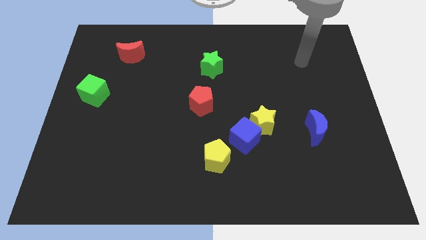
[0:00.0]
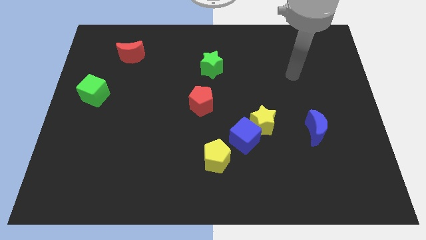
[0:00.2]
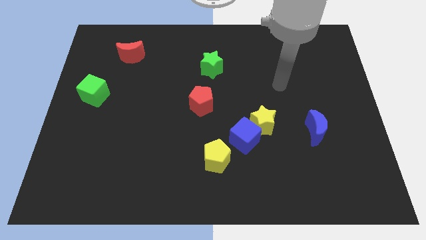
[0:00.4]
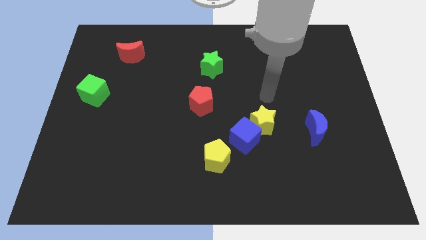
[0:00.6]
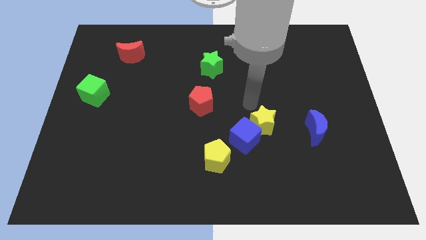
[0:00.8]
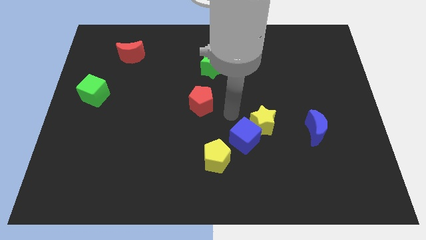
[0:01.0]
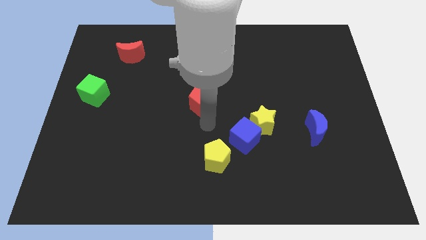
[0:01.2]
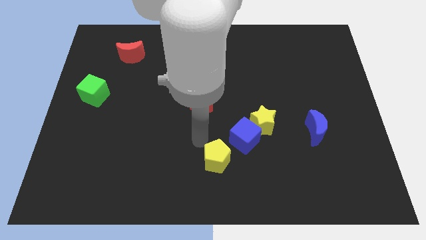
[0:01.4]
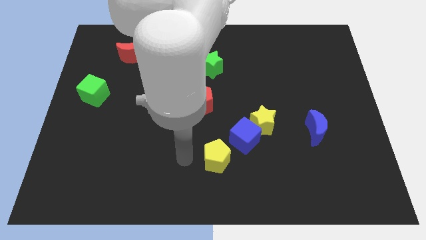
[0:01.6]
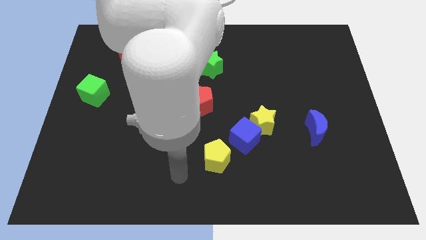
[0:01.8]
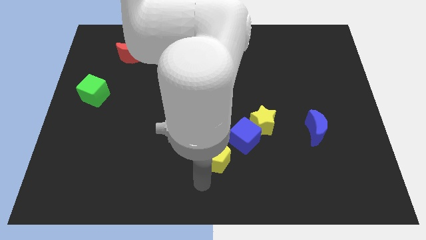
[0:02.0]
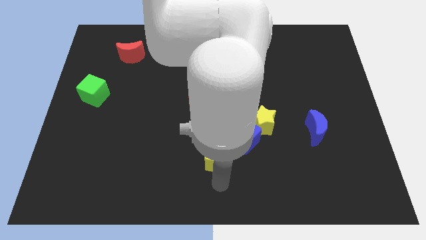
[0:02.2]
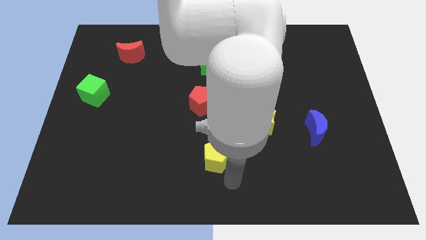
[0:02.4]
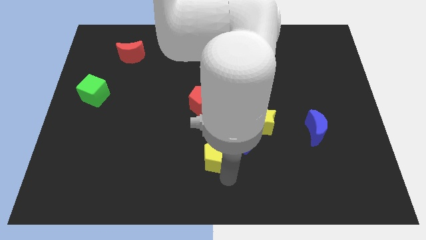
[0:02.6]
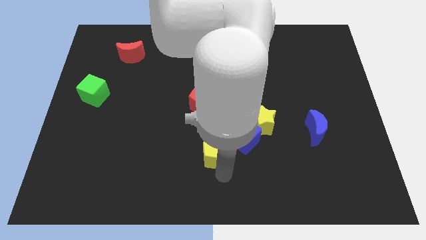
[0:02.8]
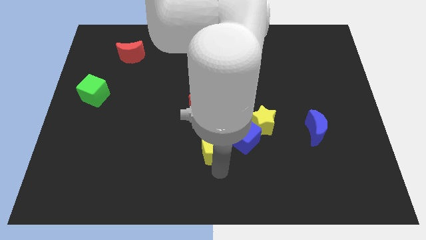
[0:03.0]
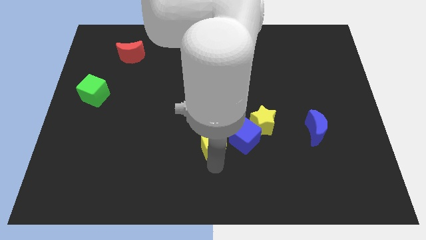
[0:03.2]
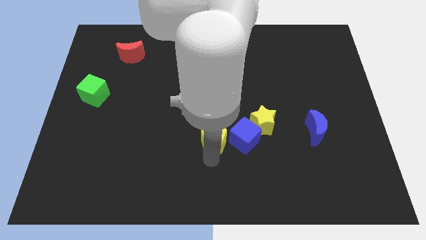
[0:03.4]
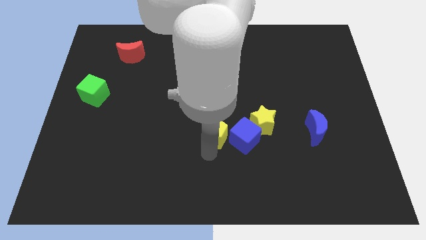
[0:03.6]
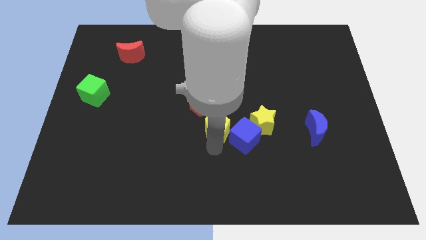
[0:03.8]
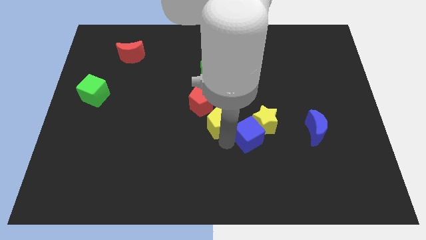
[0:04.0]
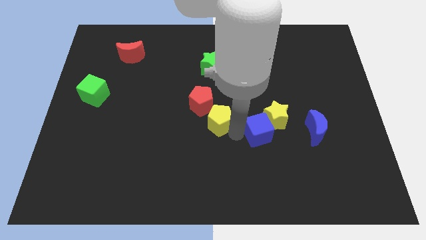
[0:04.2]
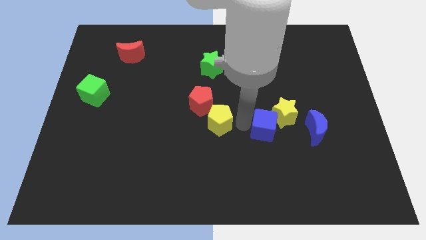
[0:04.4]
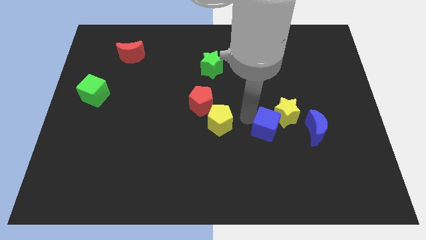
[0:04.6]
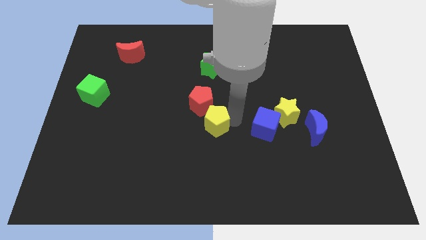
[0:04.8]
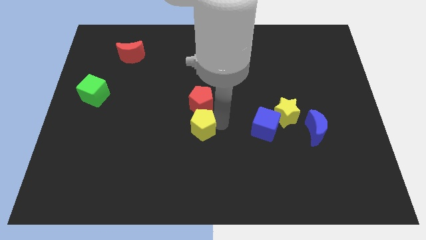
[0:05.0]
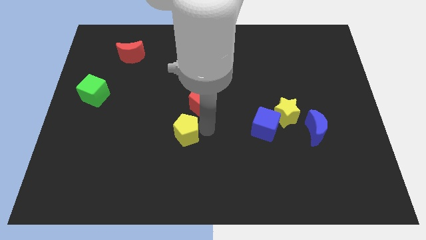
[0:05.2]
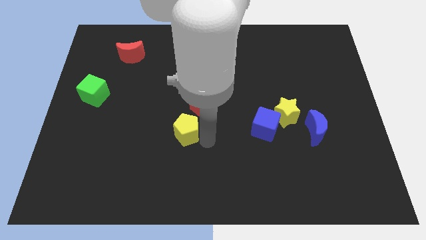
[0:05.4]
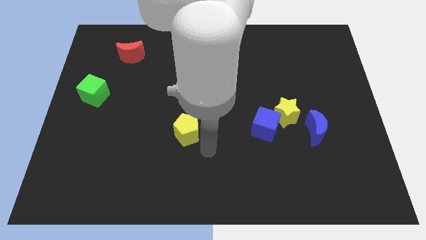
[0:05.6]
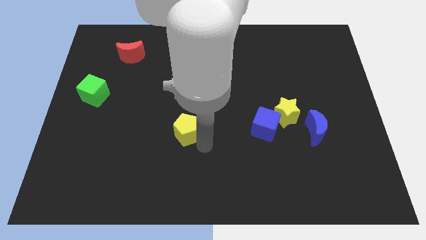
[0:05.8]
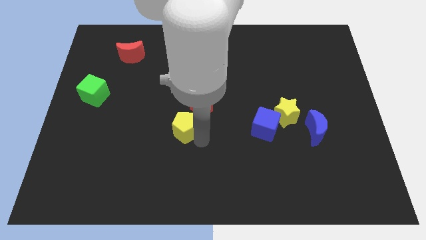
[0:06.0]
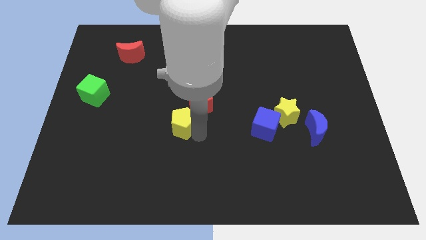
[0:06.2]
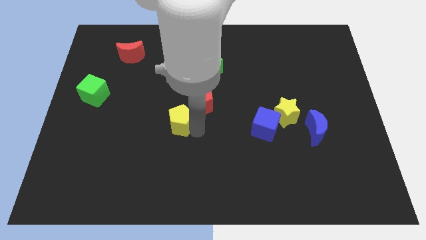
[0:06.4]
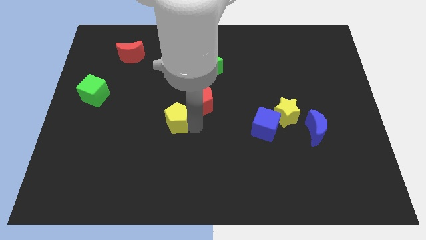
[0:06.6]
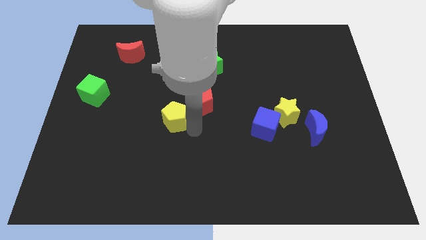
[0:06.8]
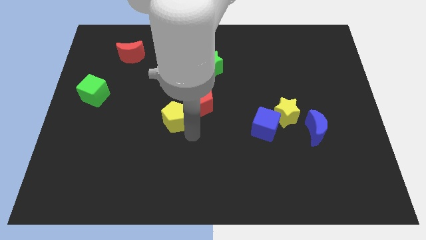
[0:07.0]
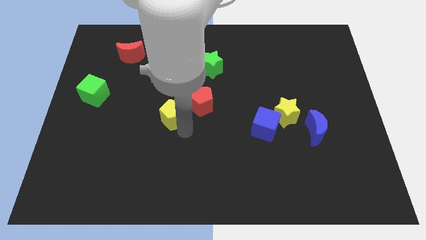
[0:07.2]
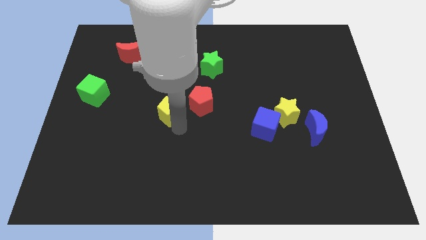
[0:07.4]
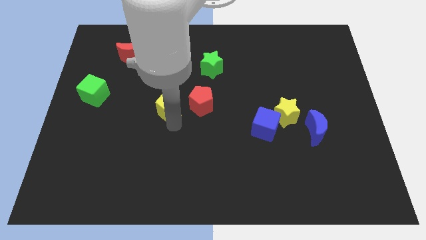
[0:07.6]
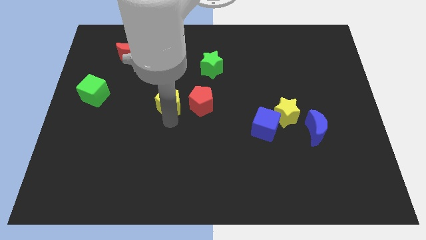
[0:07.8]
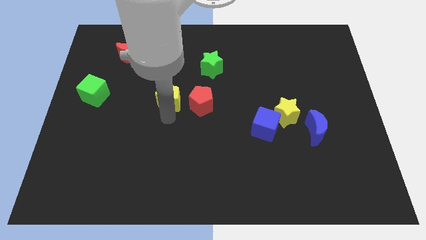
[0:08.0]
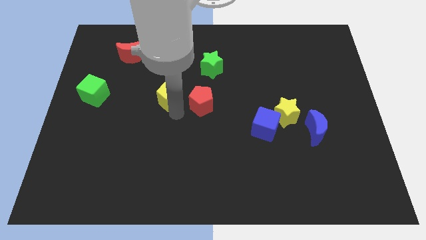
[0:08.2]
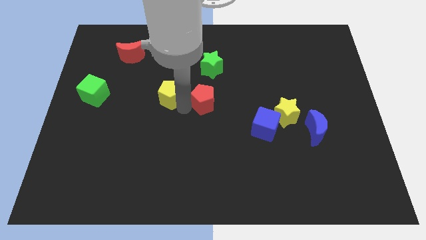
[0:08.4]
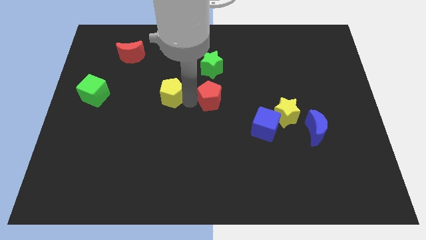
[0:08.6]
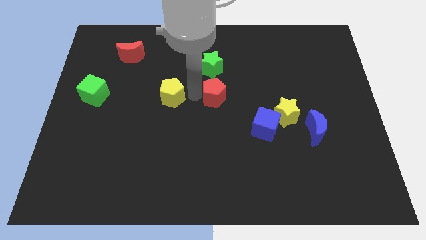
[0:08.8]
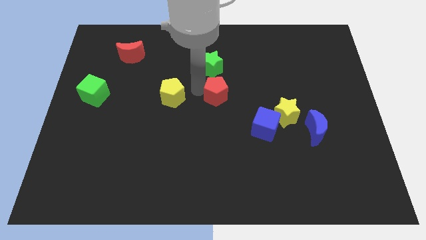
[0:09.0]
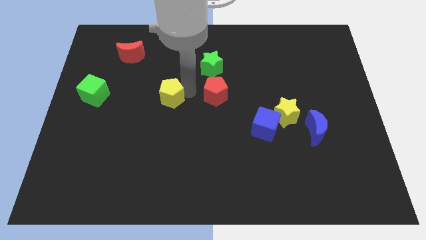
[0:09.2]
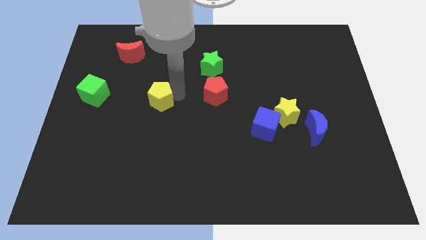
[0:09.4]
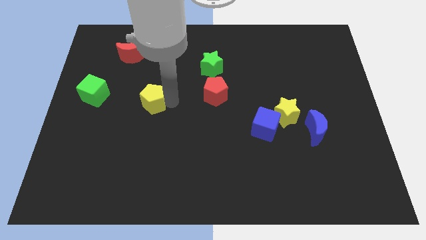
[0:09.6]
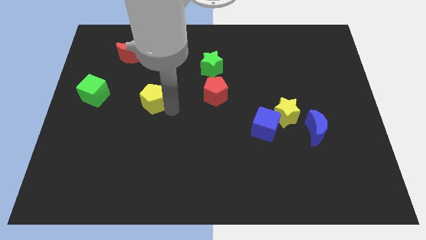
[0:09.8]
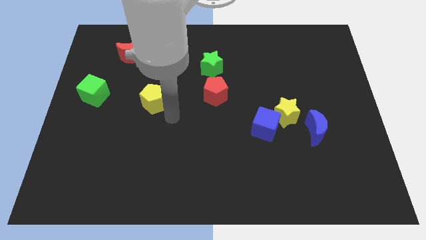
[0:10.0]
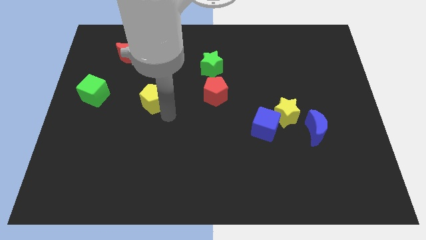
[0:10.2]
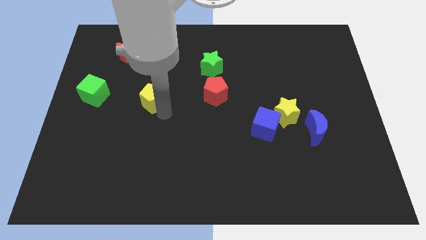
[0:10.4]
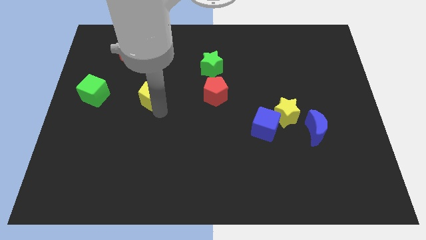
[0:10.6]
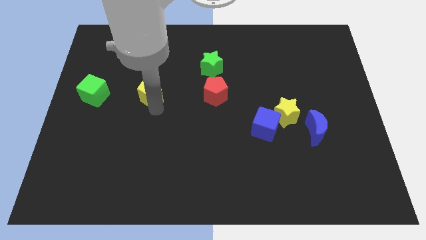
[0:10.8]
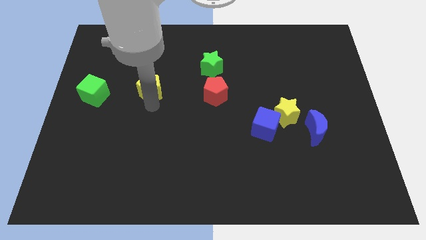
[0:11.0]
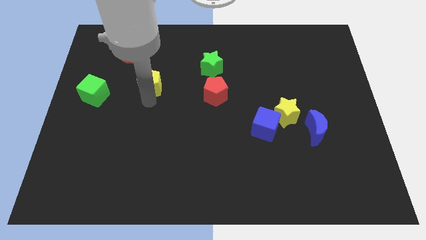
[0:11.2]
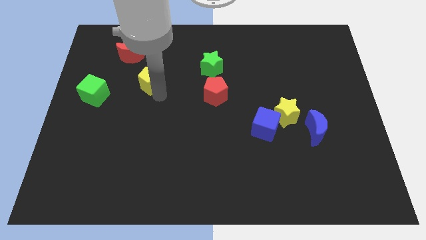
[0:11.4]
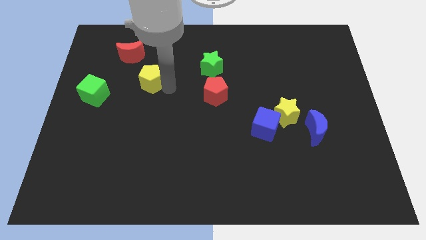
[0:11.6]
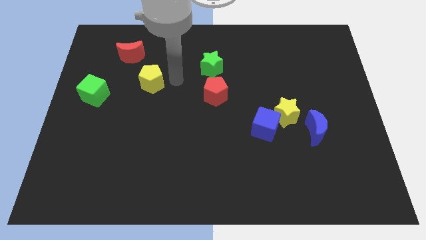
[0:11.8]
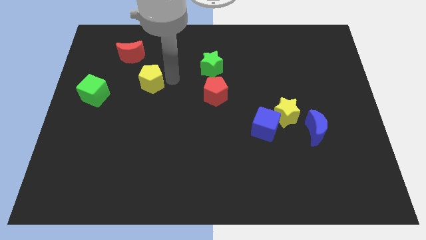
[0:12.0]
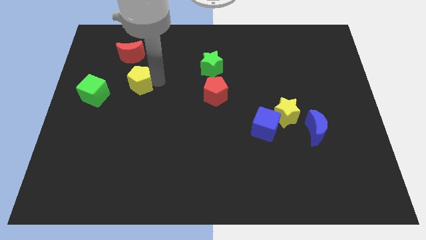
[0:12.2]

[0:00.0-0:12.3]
push the yellow pentagon to the bottom side of the red moon

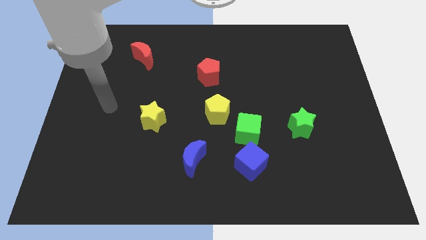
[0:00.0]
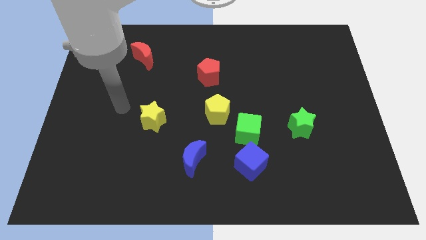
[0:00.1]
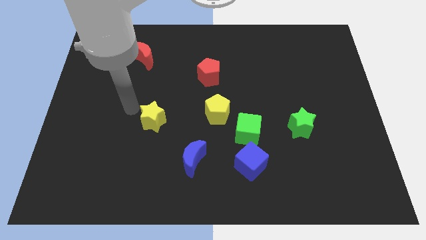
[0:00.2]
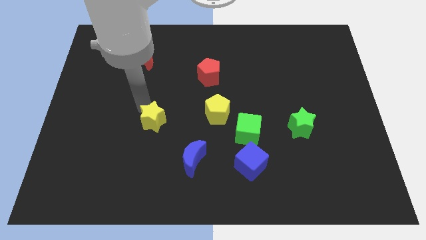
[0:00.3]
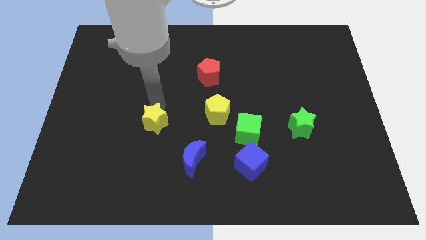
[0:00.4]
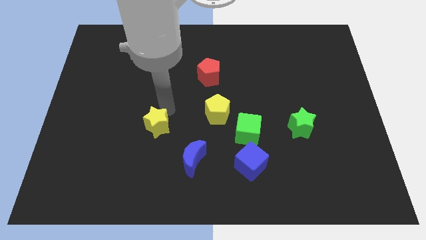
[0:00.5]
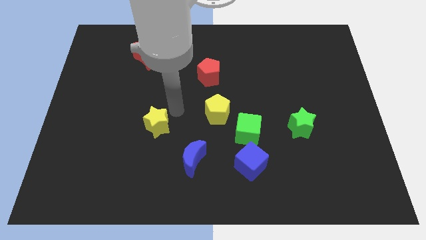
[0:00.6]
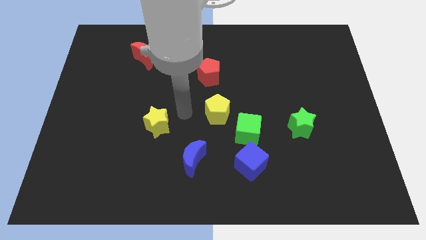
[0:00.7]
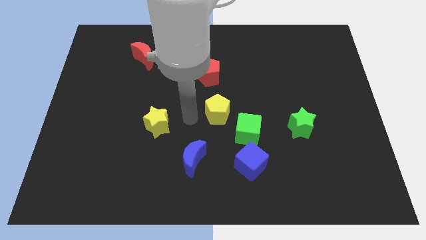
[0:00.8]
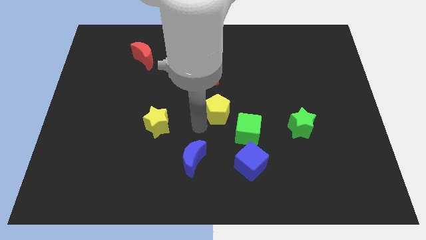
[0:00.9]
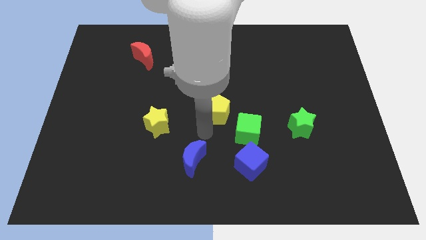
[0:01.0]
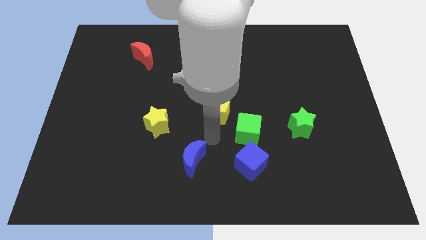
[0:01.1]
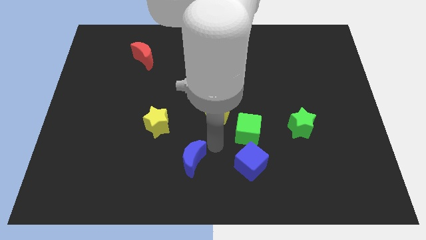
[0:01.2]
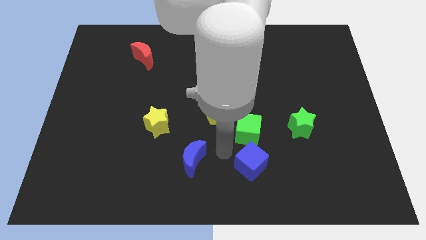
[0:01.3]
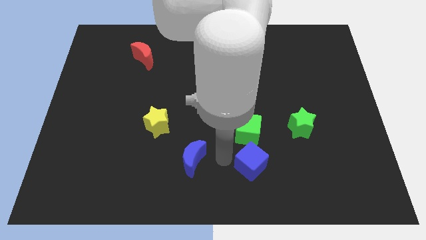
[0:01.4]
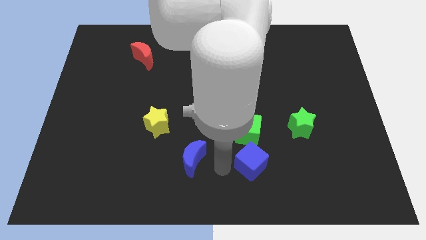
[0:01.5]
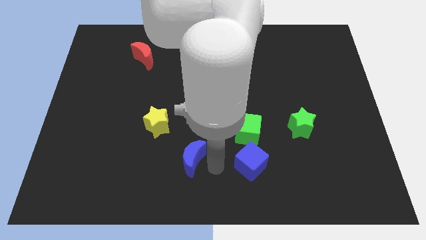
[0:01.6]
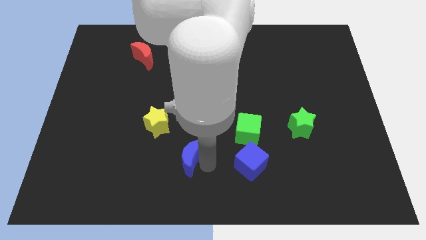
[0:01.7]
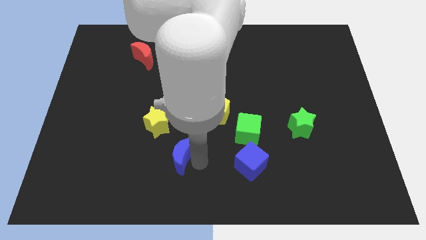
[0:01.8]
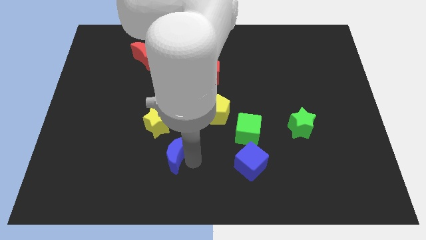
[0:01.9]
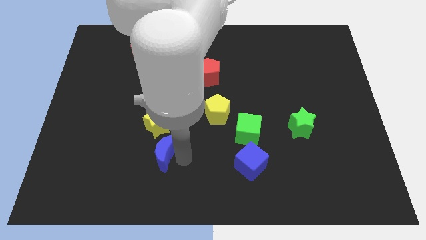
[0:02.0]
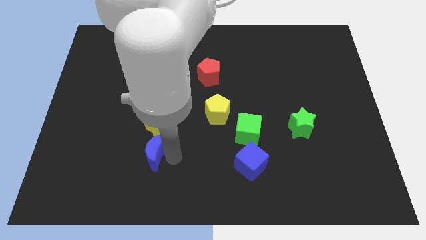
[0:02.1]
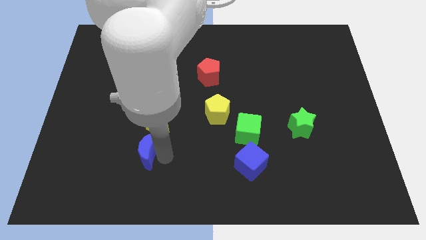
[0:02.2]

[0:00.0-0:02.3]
put the blue moon to the bottom left side of the yellow star
